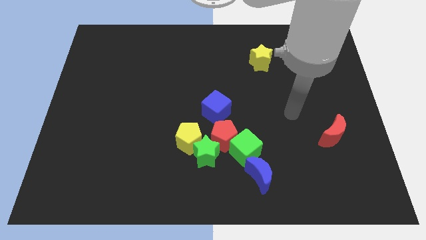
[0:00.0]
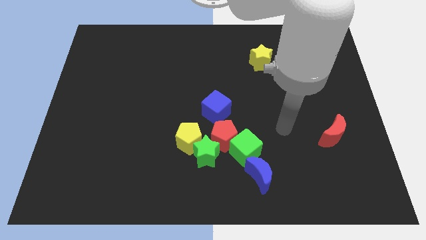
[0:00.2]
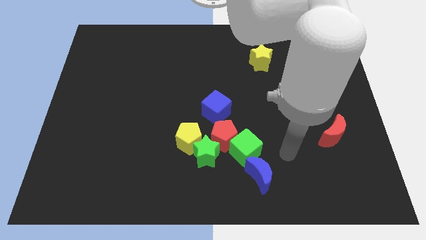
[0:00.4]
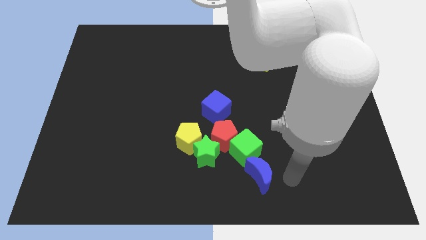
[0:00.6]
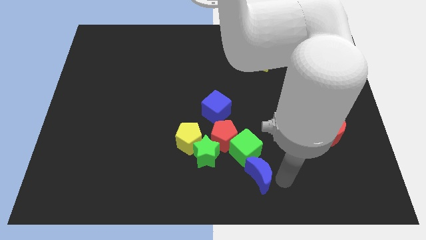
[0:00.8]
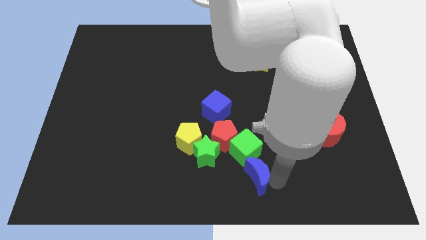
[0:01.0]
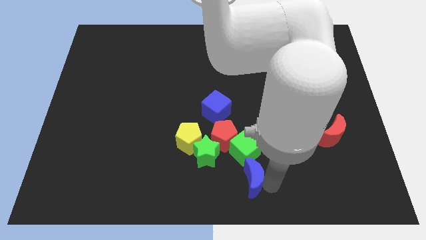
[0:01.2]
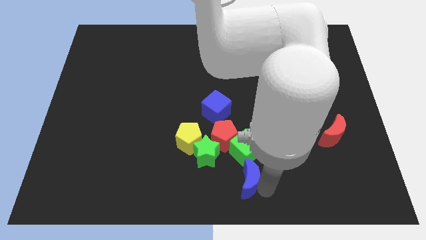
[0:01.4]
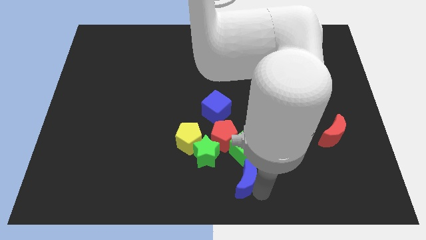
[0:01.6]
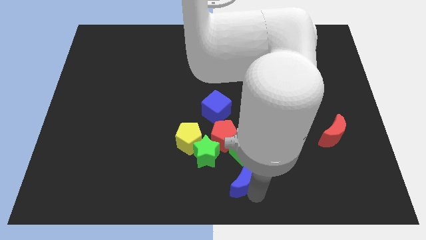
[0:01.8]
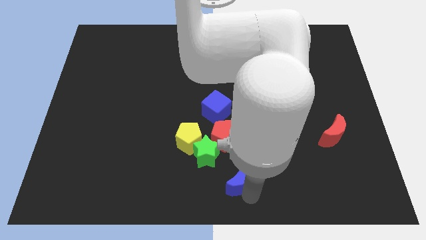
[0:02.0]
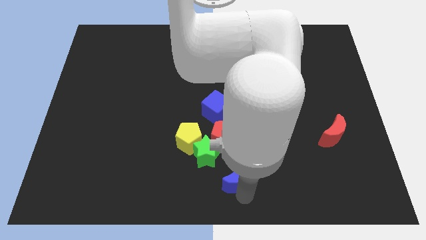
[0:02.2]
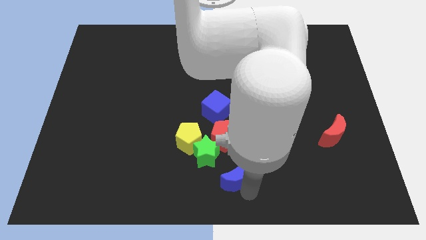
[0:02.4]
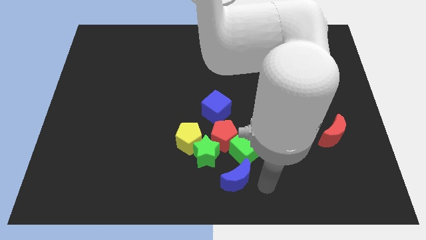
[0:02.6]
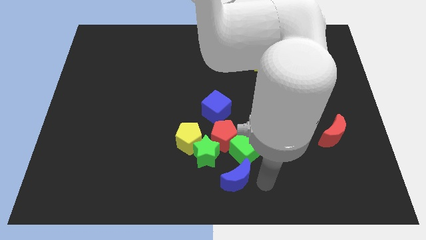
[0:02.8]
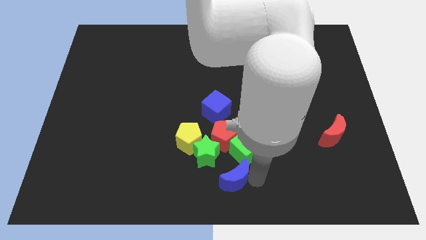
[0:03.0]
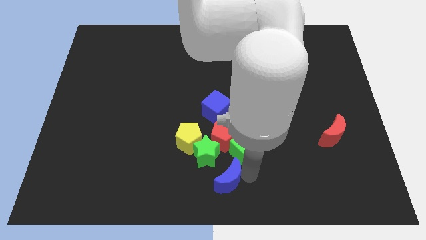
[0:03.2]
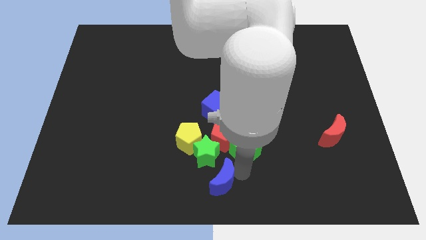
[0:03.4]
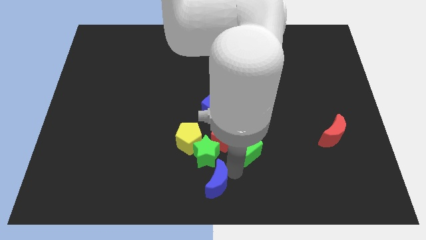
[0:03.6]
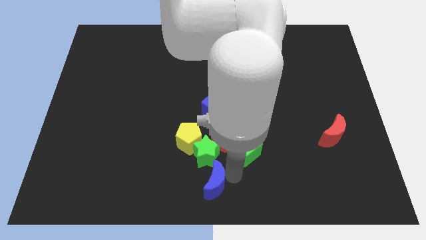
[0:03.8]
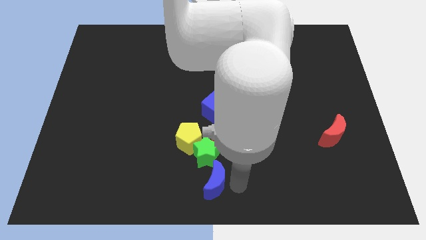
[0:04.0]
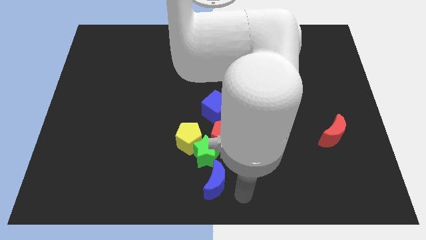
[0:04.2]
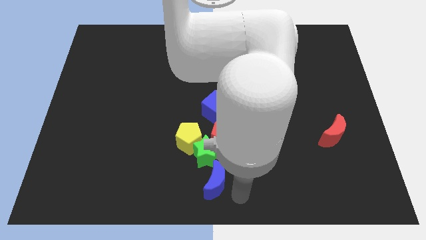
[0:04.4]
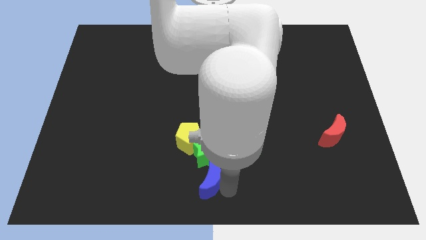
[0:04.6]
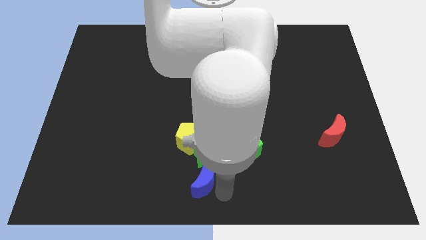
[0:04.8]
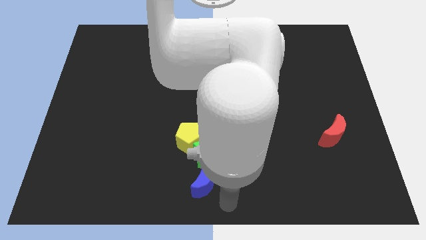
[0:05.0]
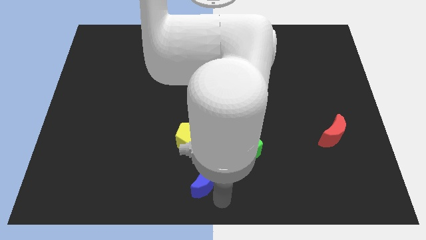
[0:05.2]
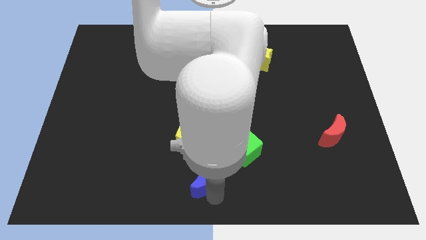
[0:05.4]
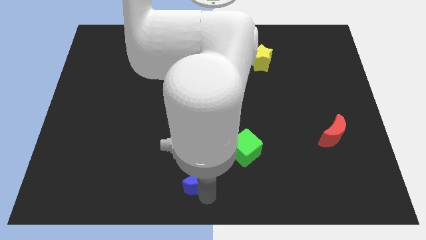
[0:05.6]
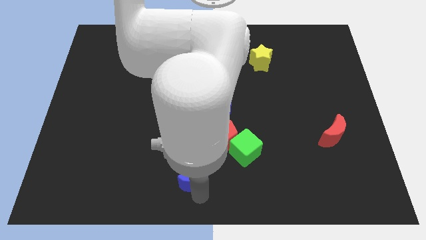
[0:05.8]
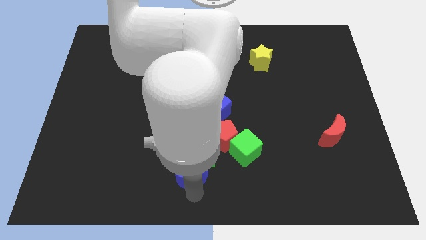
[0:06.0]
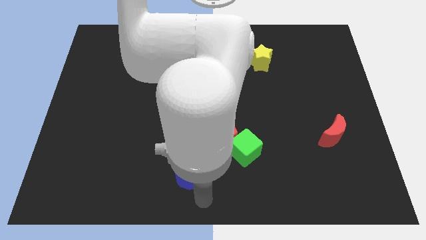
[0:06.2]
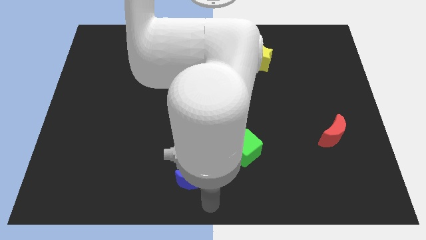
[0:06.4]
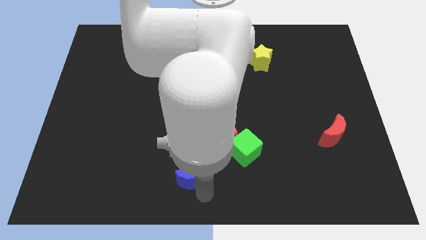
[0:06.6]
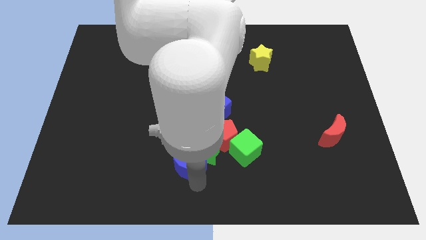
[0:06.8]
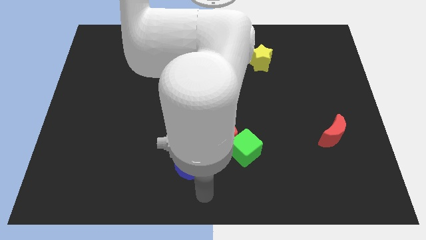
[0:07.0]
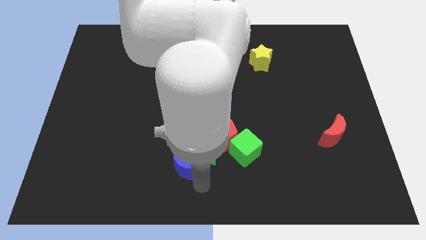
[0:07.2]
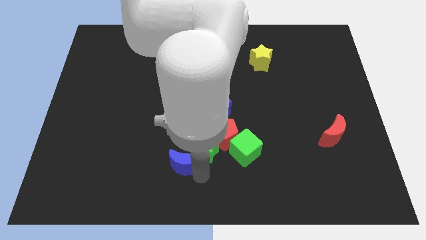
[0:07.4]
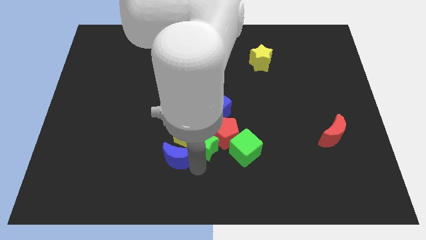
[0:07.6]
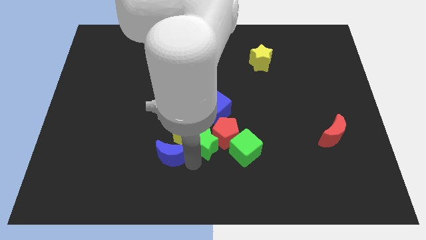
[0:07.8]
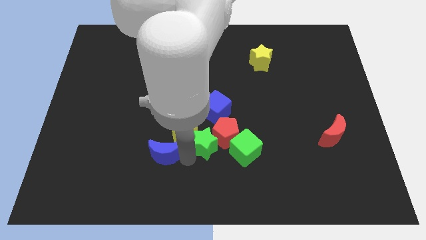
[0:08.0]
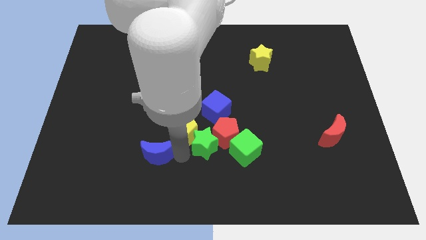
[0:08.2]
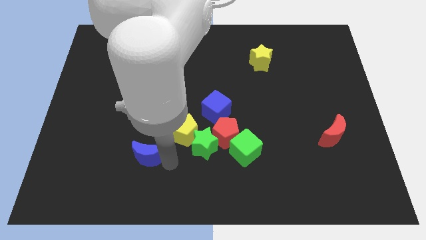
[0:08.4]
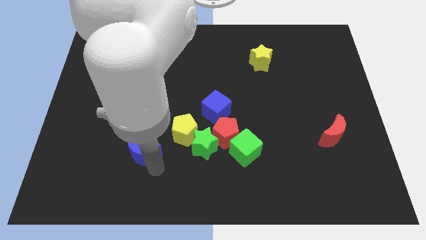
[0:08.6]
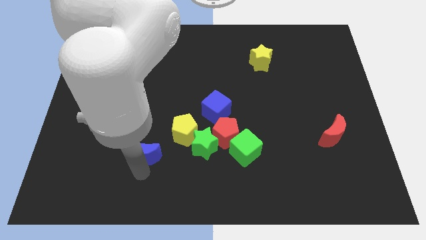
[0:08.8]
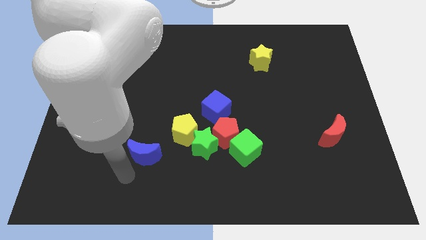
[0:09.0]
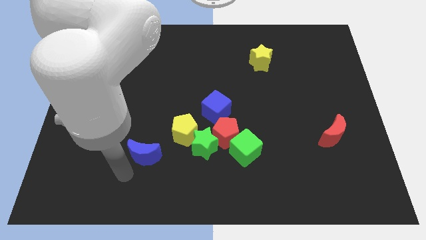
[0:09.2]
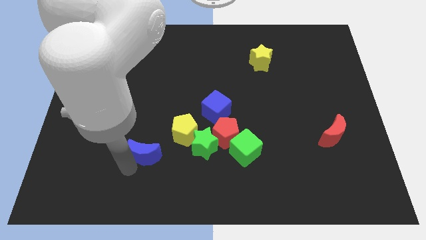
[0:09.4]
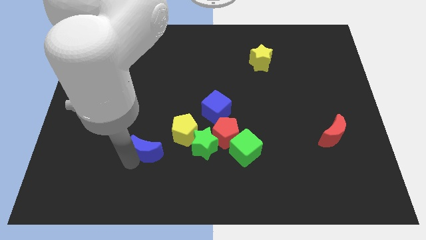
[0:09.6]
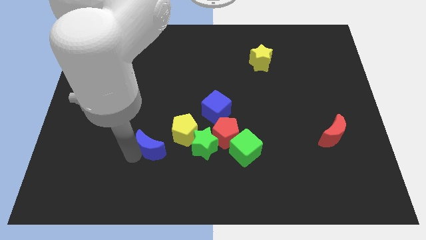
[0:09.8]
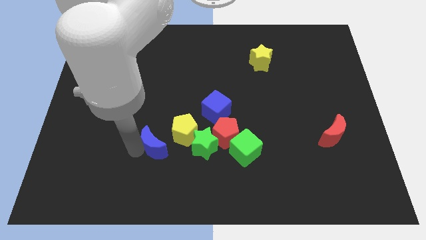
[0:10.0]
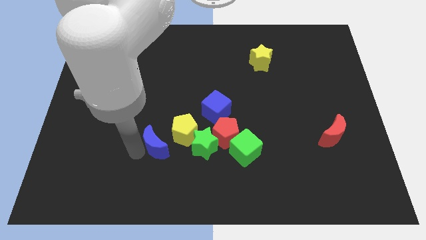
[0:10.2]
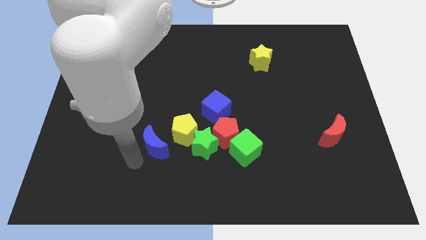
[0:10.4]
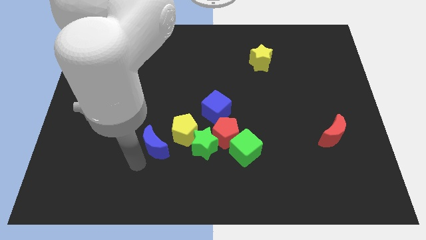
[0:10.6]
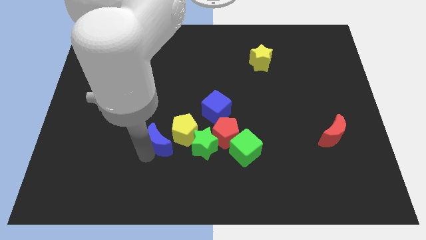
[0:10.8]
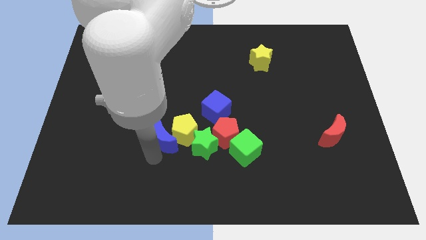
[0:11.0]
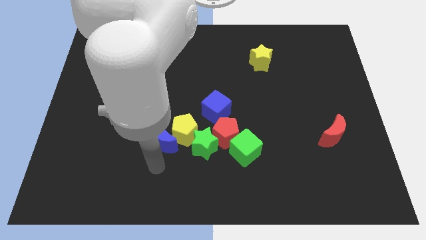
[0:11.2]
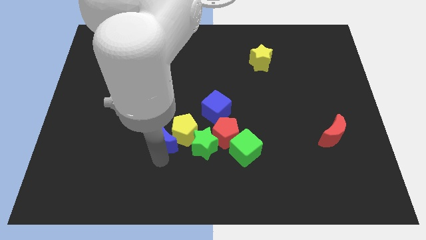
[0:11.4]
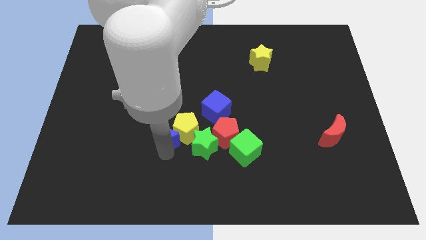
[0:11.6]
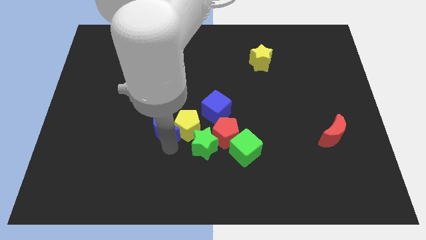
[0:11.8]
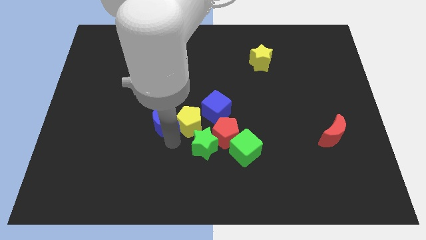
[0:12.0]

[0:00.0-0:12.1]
put the blue moon to the left of the blue cube

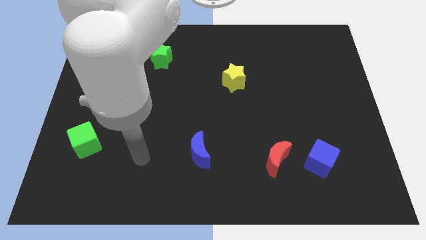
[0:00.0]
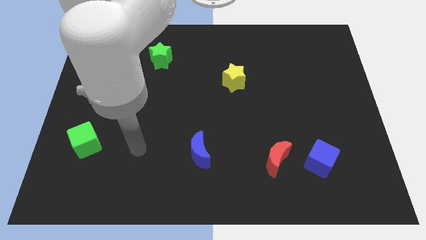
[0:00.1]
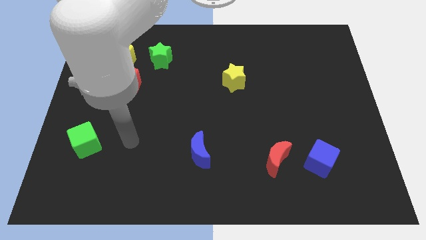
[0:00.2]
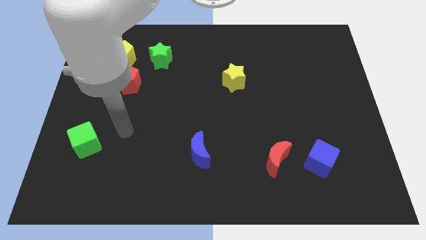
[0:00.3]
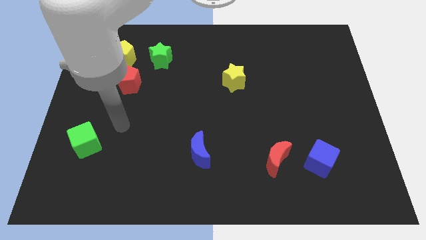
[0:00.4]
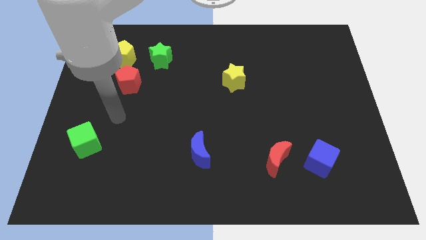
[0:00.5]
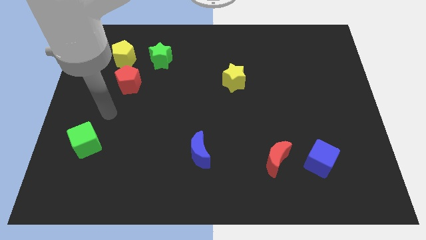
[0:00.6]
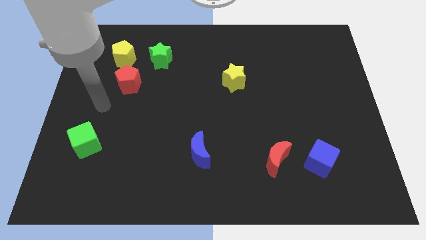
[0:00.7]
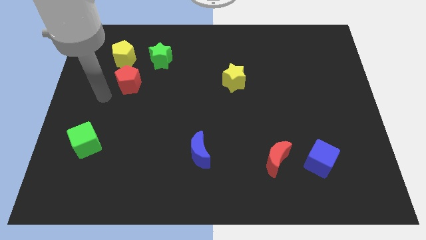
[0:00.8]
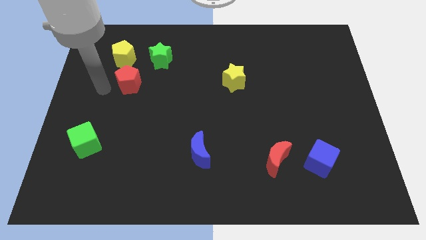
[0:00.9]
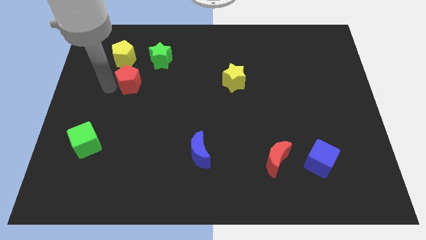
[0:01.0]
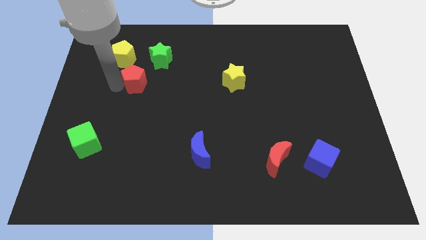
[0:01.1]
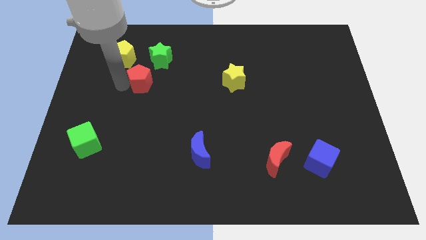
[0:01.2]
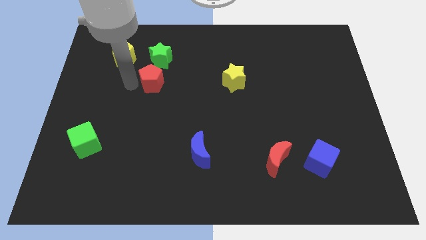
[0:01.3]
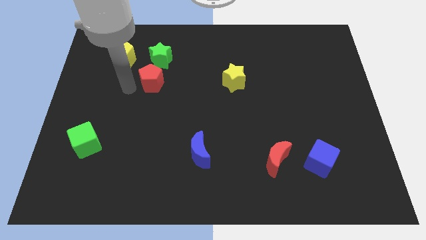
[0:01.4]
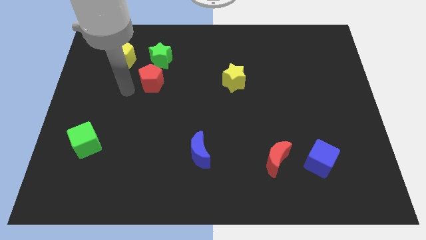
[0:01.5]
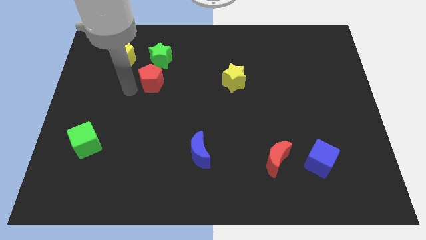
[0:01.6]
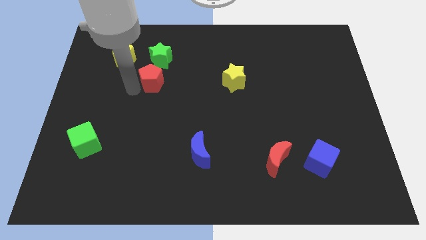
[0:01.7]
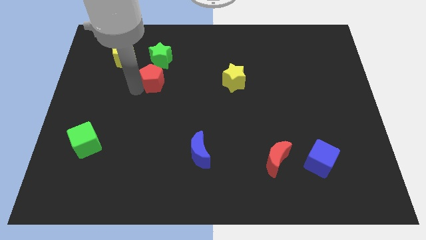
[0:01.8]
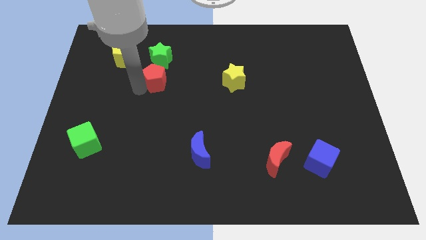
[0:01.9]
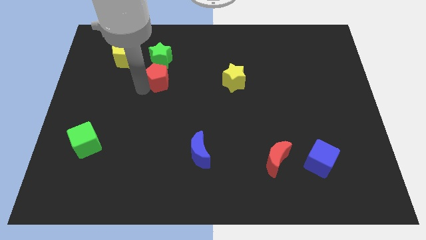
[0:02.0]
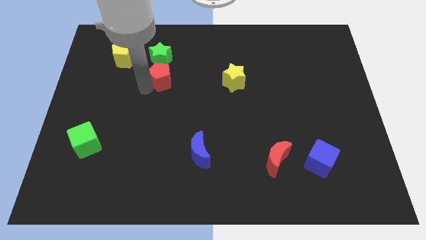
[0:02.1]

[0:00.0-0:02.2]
move the red pentagon to the bottom right side of the green star
